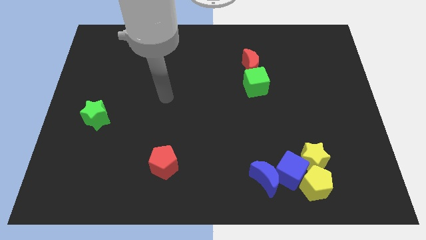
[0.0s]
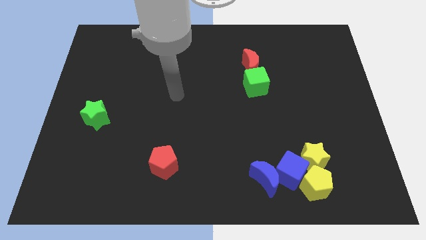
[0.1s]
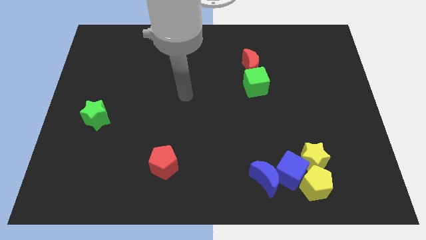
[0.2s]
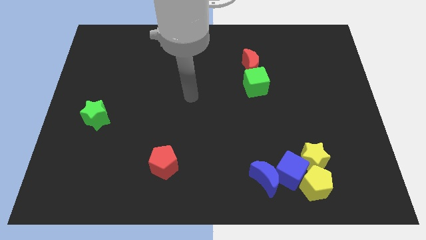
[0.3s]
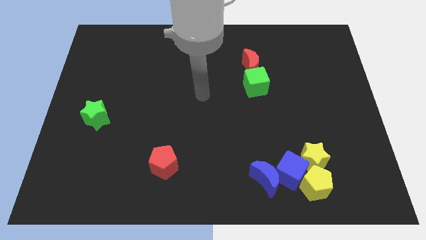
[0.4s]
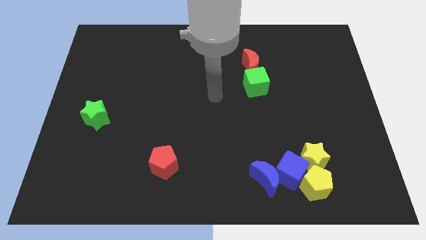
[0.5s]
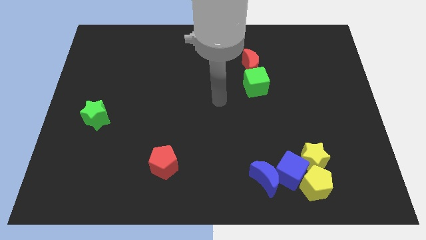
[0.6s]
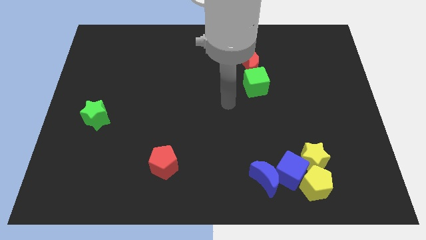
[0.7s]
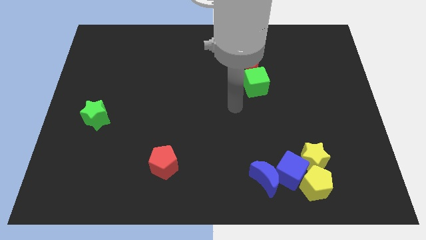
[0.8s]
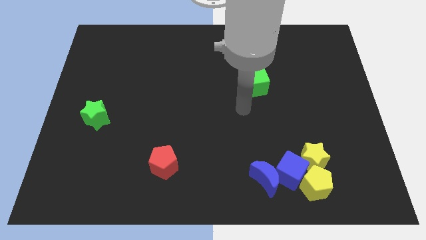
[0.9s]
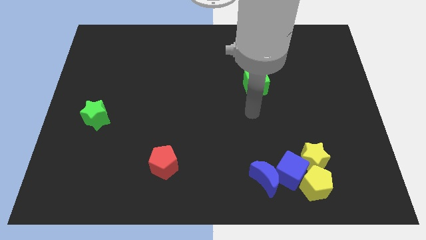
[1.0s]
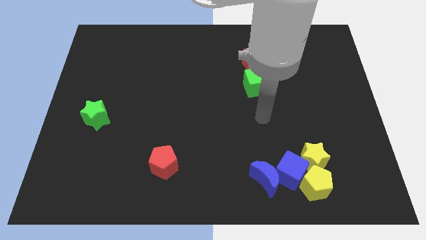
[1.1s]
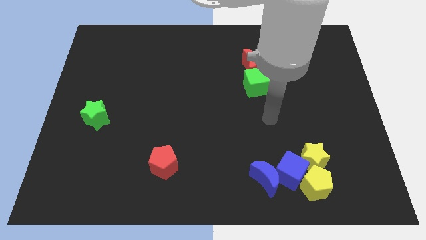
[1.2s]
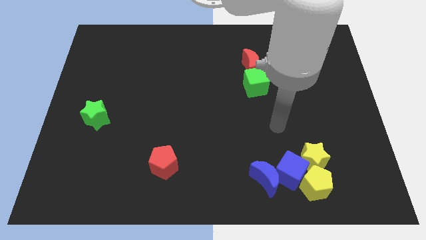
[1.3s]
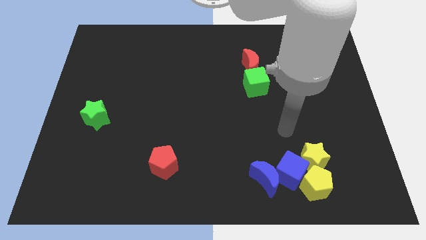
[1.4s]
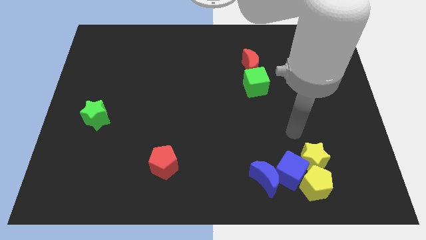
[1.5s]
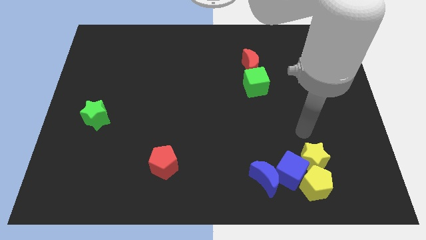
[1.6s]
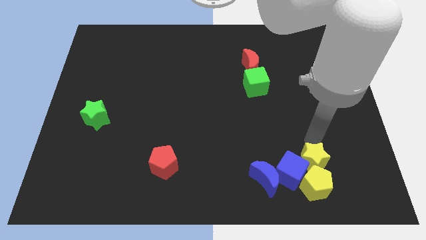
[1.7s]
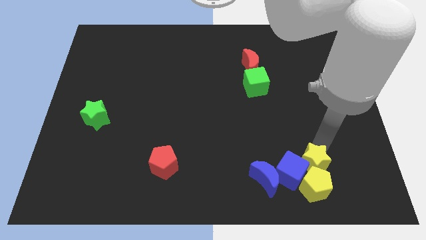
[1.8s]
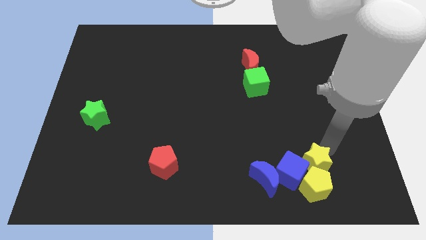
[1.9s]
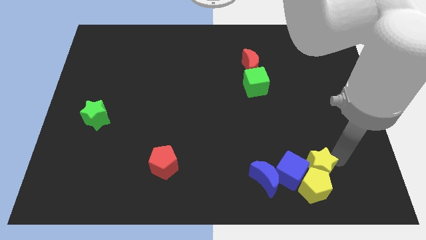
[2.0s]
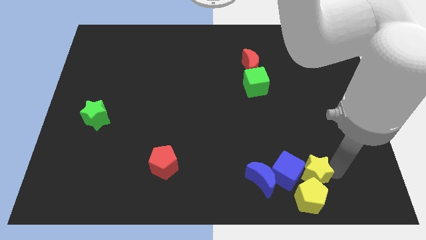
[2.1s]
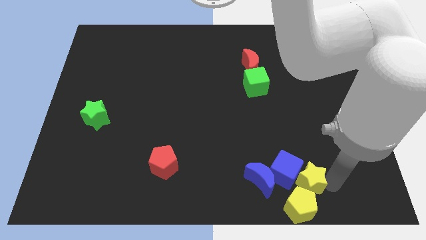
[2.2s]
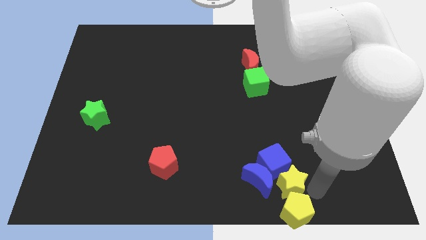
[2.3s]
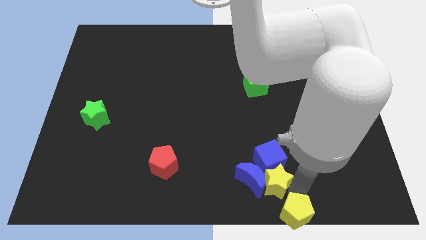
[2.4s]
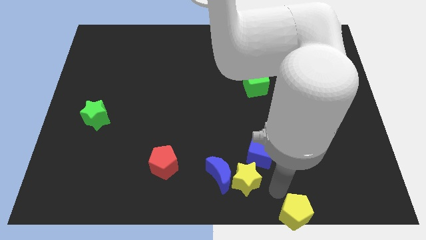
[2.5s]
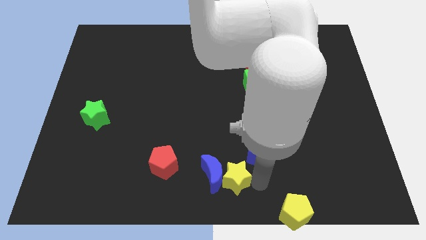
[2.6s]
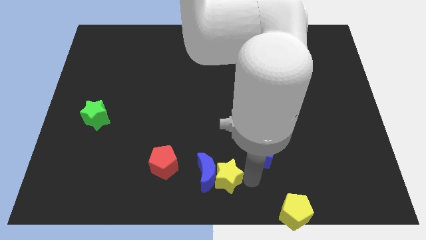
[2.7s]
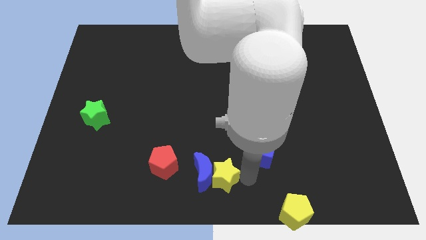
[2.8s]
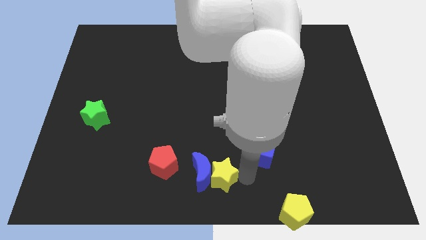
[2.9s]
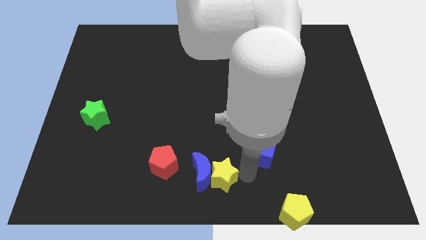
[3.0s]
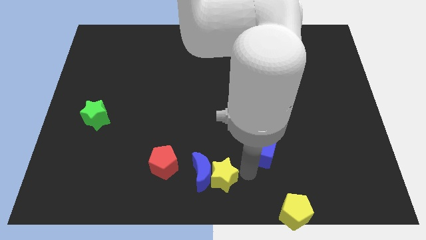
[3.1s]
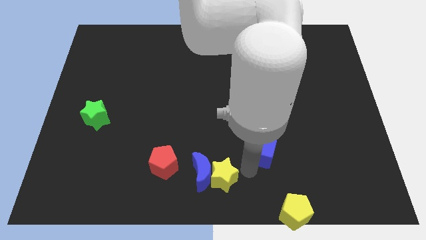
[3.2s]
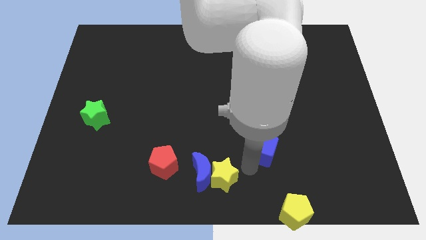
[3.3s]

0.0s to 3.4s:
pull the blue cube apart from the blue moon, yellow pentagon, and yellow star

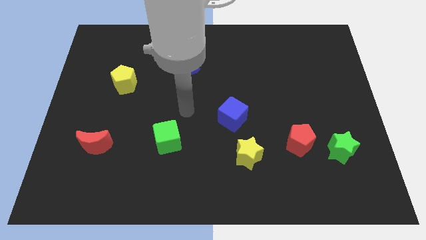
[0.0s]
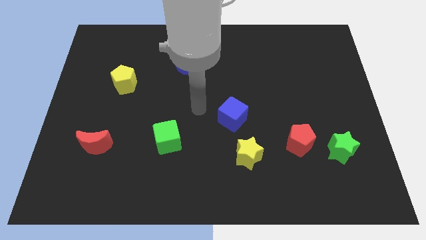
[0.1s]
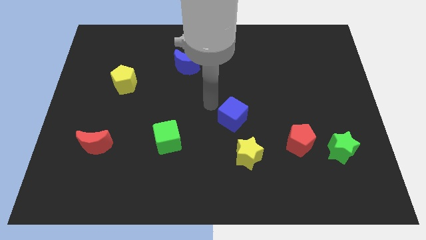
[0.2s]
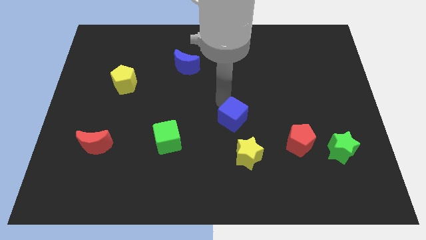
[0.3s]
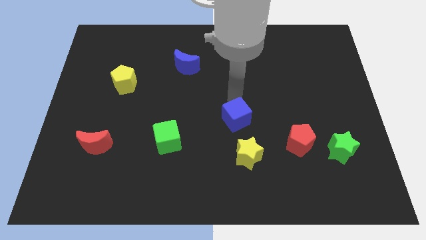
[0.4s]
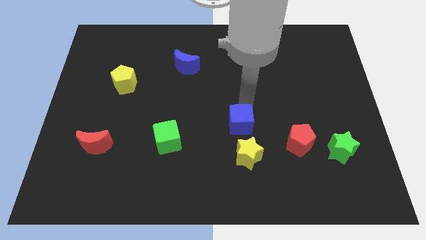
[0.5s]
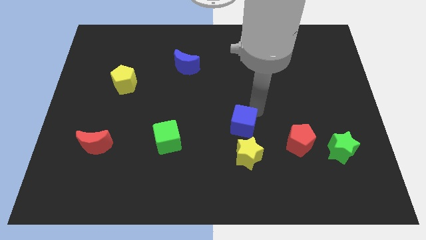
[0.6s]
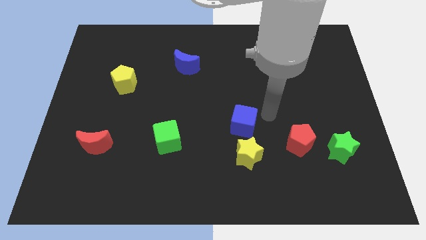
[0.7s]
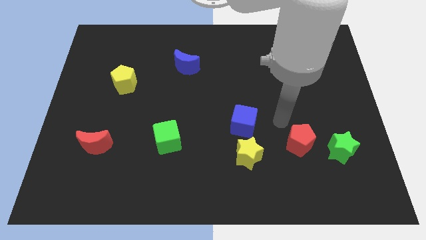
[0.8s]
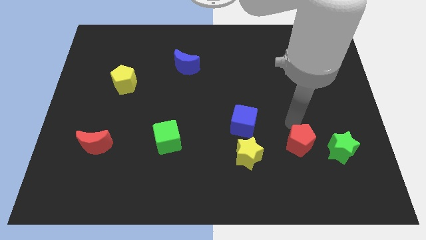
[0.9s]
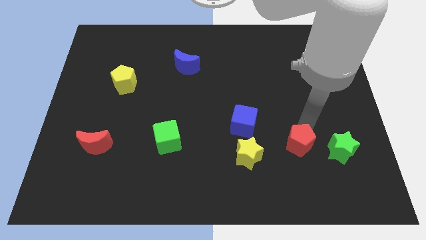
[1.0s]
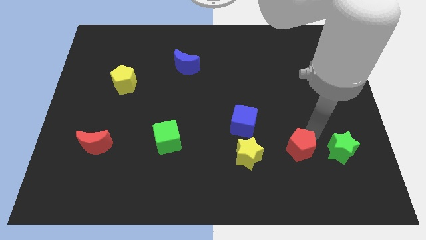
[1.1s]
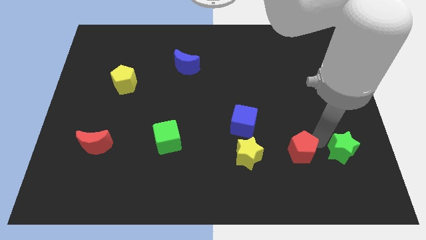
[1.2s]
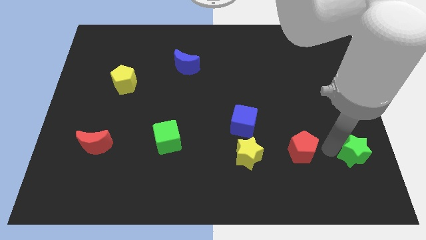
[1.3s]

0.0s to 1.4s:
move the red pentagon away from the green star

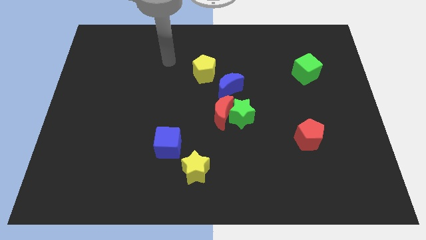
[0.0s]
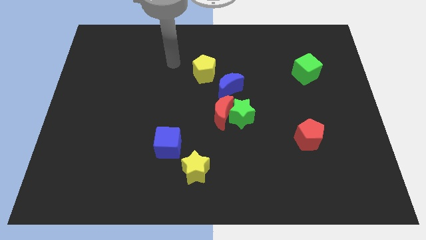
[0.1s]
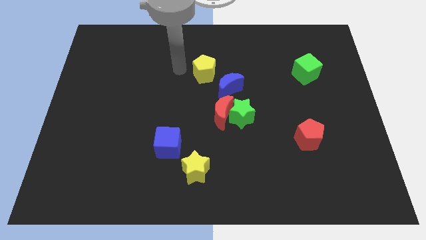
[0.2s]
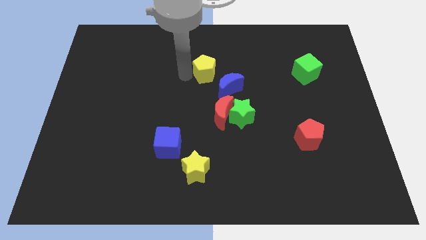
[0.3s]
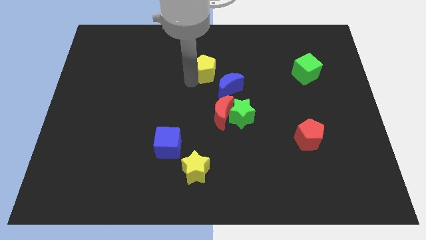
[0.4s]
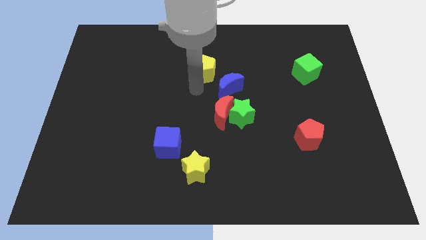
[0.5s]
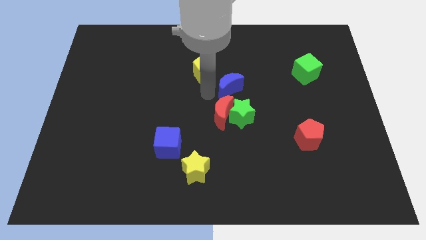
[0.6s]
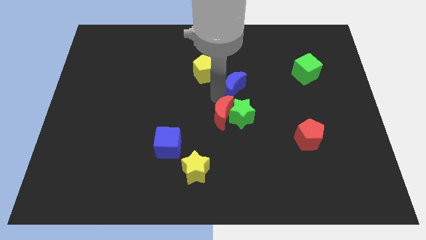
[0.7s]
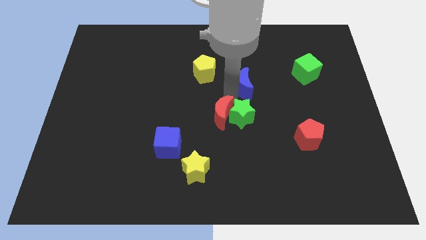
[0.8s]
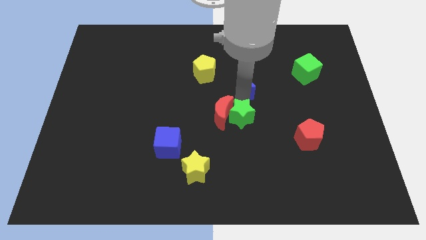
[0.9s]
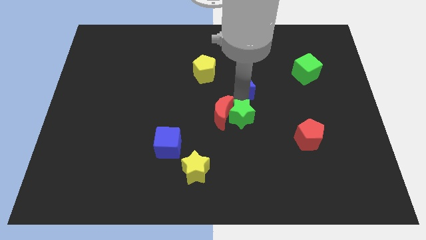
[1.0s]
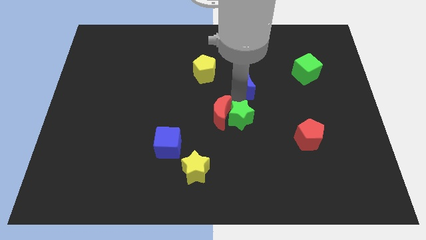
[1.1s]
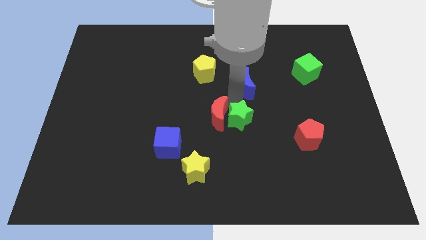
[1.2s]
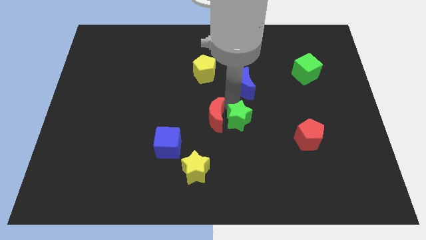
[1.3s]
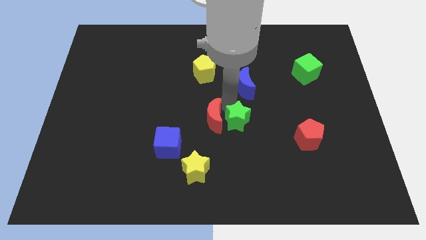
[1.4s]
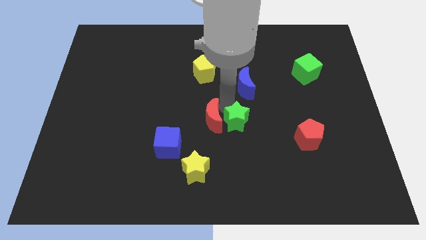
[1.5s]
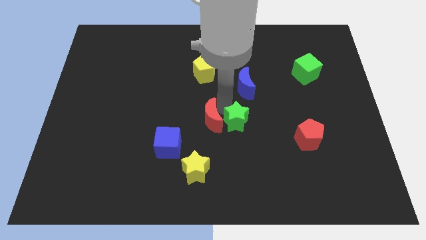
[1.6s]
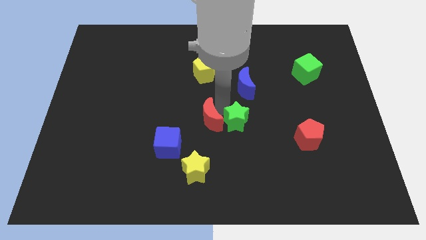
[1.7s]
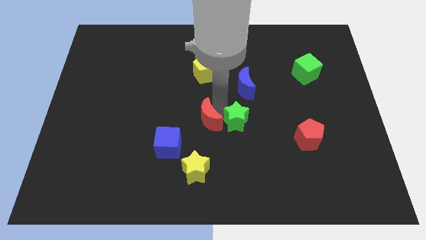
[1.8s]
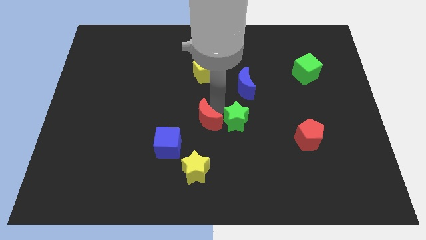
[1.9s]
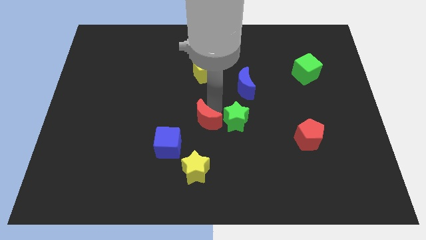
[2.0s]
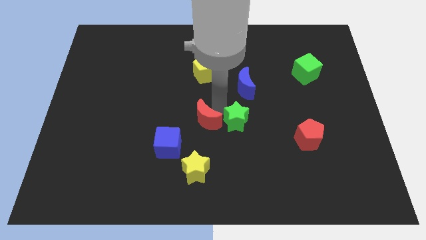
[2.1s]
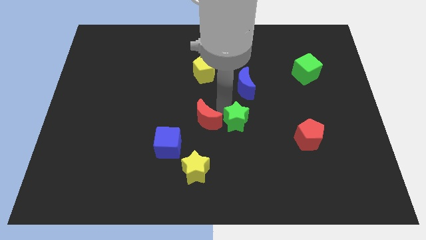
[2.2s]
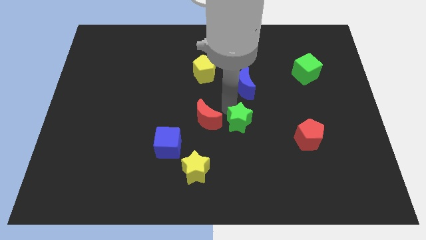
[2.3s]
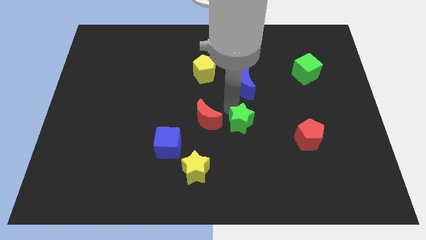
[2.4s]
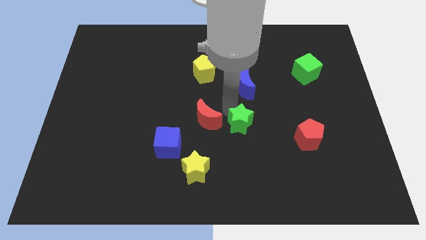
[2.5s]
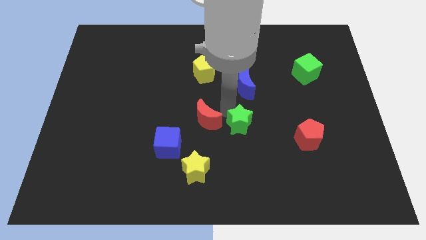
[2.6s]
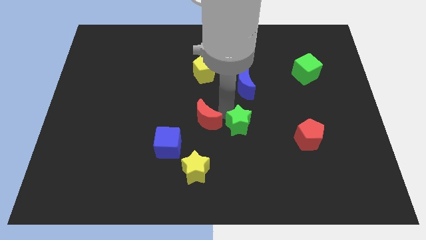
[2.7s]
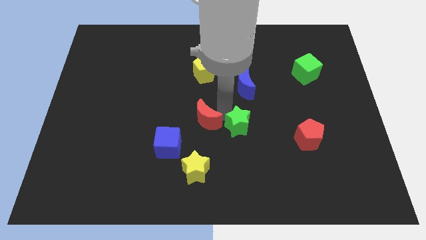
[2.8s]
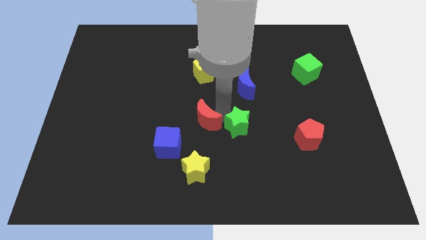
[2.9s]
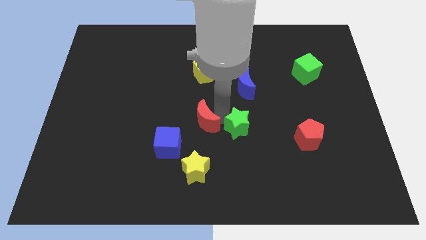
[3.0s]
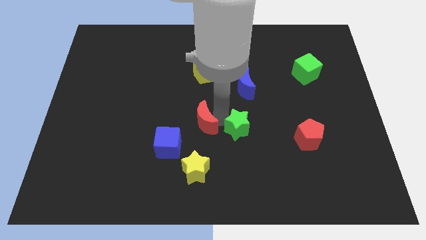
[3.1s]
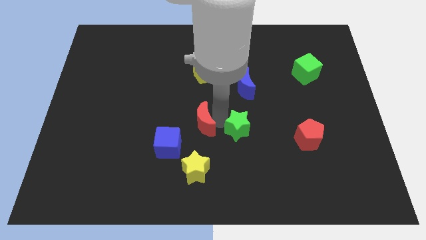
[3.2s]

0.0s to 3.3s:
separate the red moon from the green star and blue moon

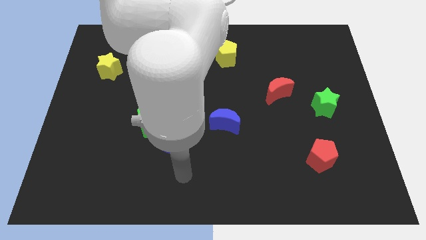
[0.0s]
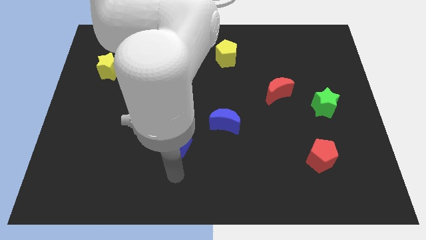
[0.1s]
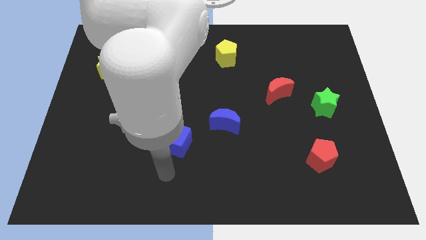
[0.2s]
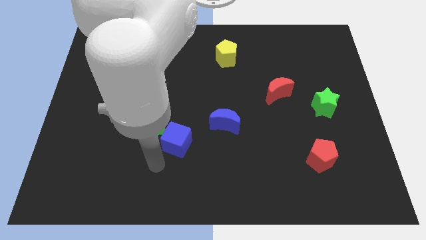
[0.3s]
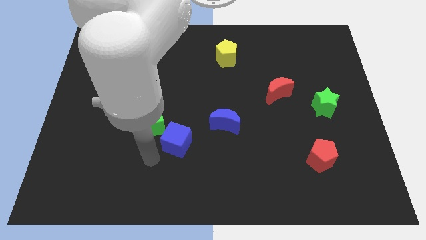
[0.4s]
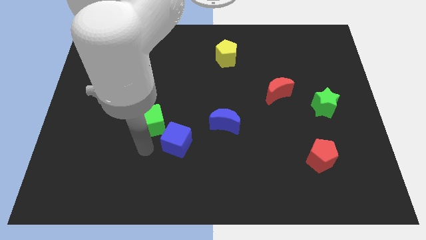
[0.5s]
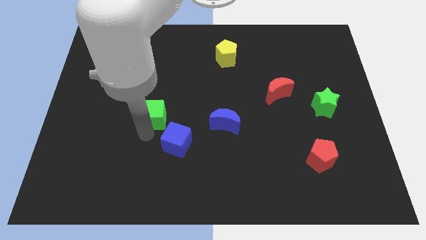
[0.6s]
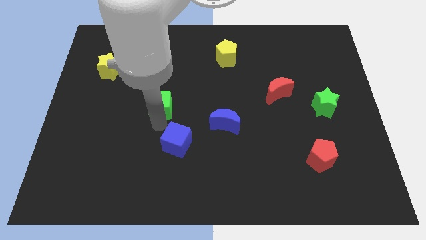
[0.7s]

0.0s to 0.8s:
move the blue cube away from the green cube

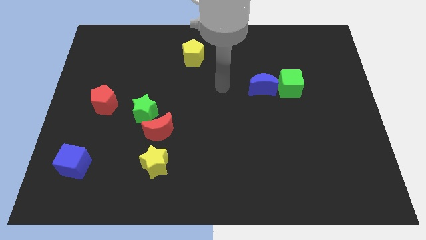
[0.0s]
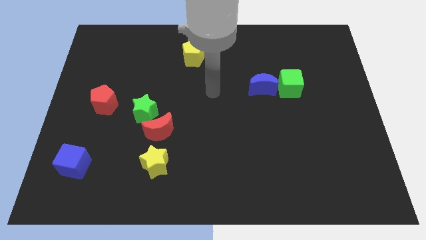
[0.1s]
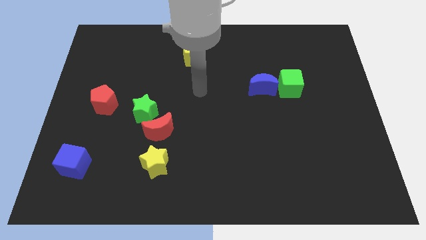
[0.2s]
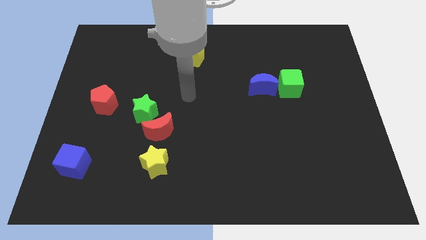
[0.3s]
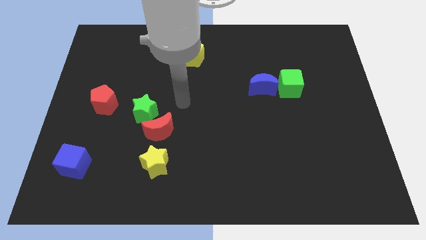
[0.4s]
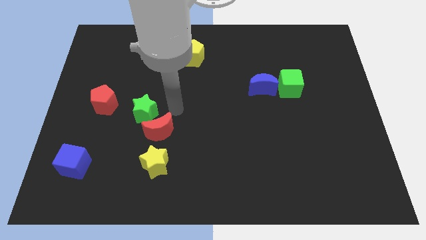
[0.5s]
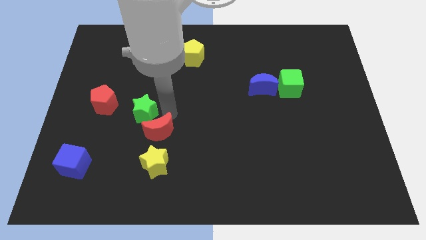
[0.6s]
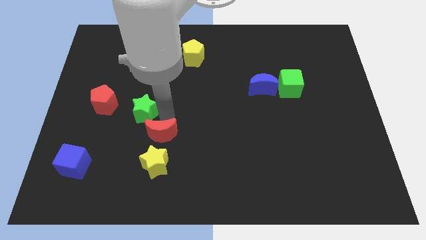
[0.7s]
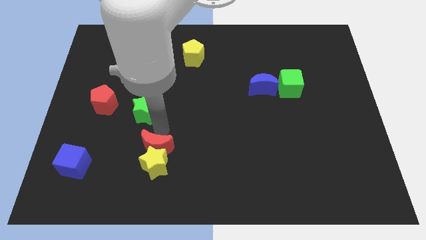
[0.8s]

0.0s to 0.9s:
separate the green star from the red moon
